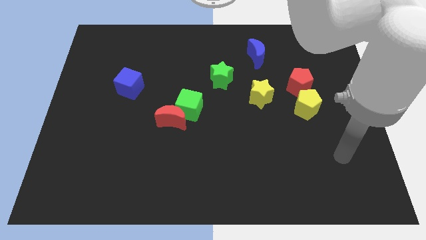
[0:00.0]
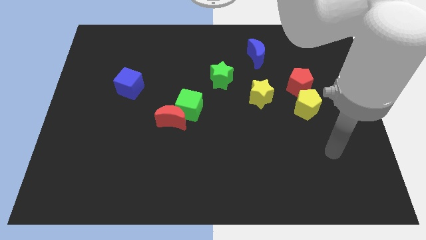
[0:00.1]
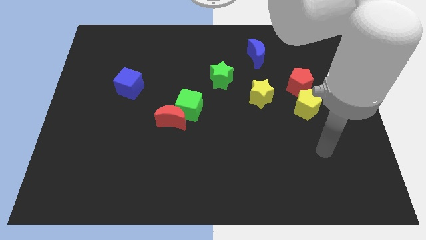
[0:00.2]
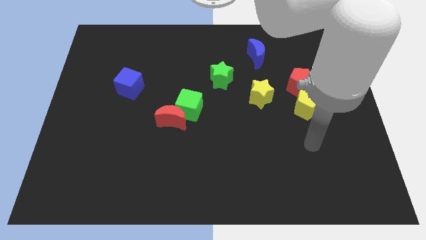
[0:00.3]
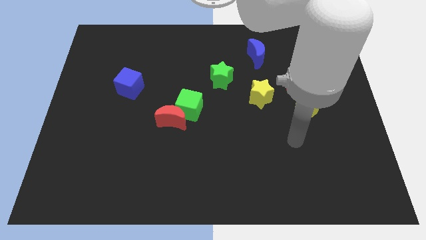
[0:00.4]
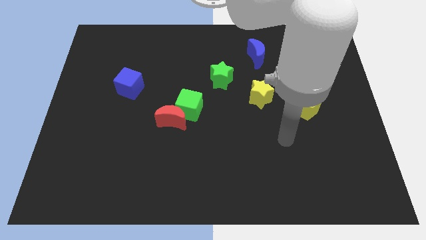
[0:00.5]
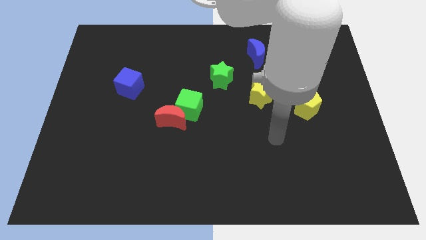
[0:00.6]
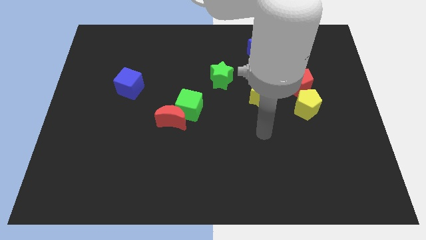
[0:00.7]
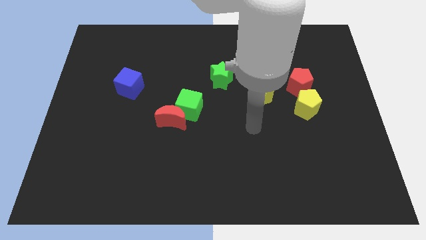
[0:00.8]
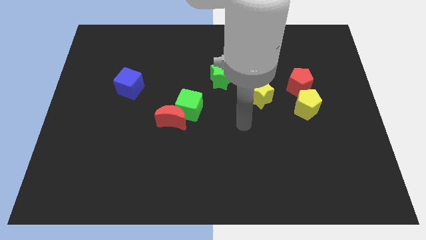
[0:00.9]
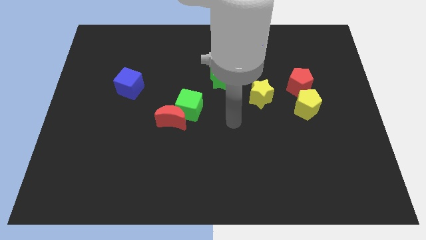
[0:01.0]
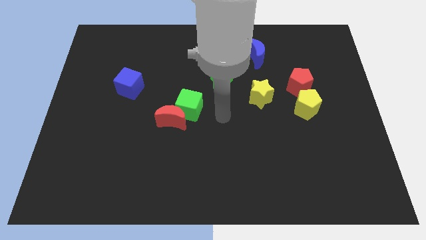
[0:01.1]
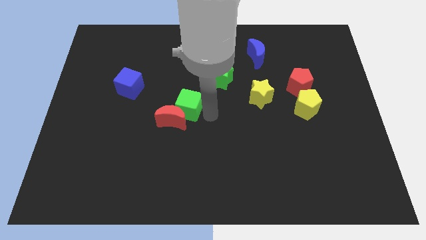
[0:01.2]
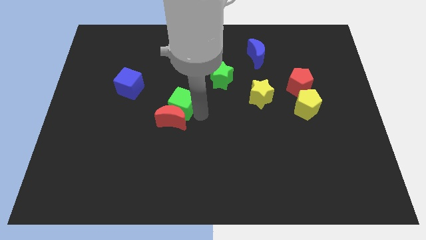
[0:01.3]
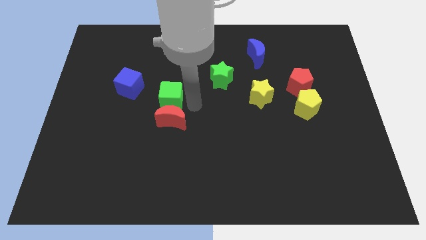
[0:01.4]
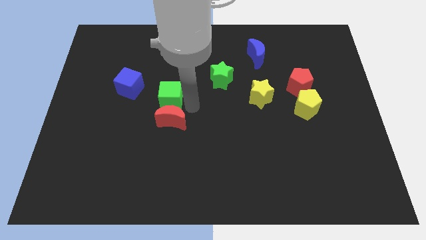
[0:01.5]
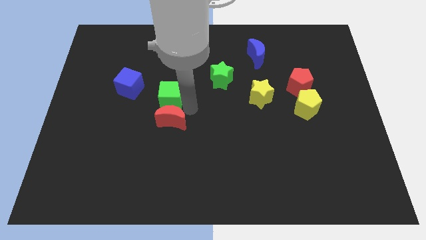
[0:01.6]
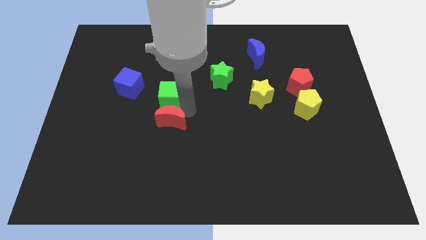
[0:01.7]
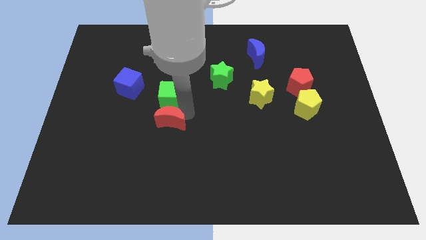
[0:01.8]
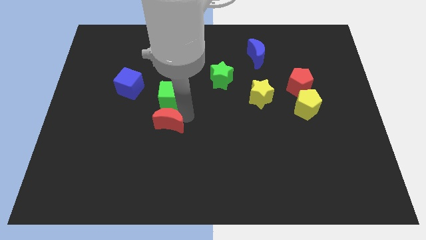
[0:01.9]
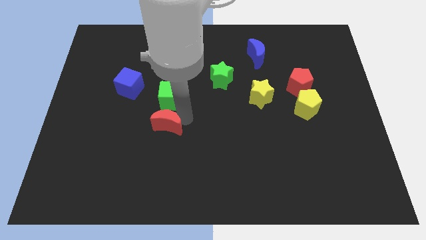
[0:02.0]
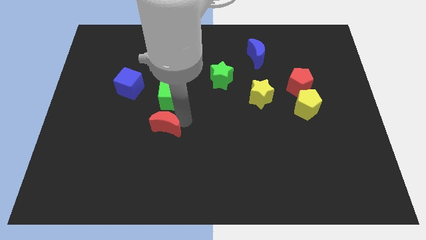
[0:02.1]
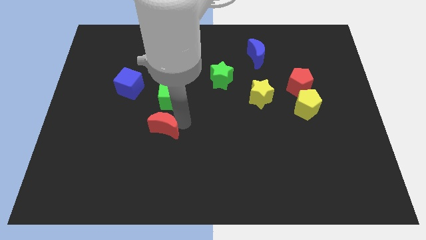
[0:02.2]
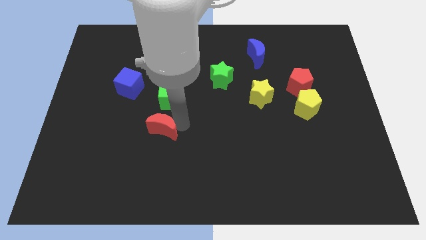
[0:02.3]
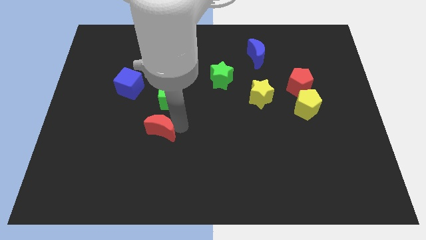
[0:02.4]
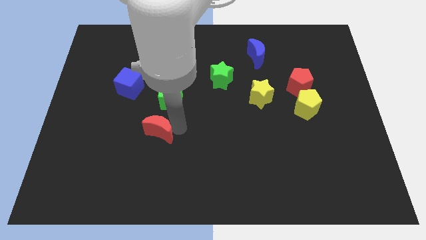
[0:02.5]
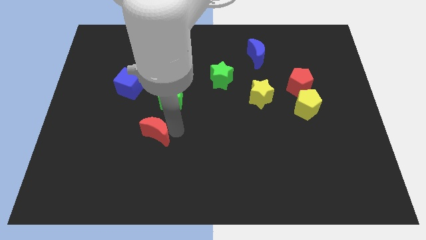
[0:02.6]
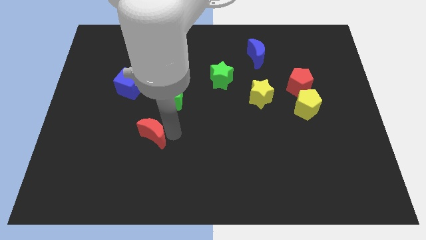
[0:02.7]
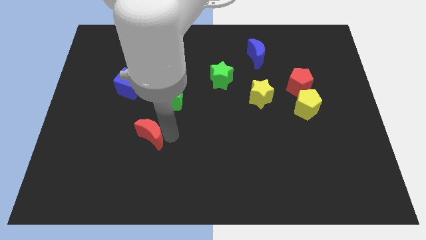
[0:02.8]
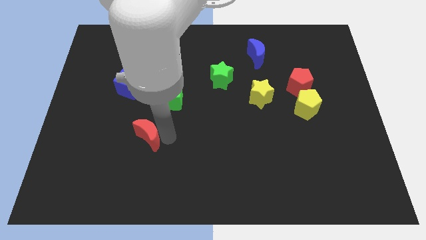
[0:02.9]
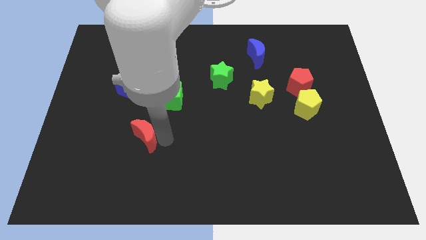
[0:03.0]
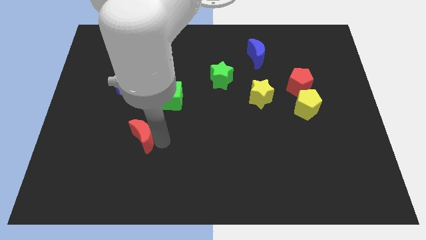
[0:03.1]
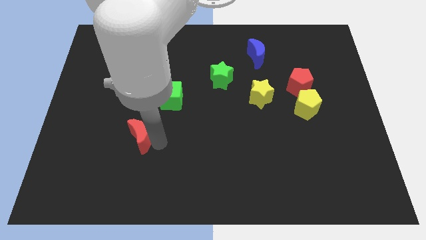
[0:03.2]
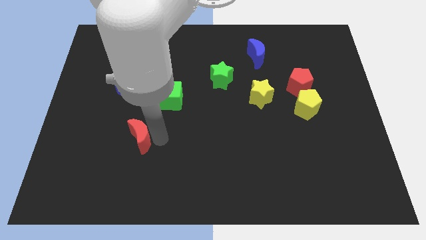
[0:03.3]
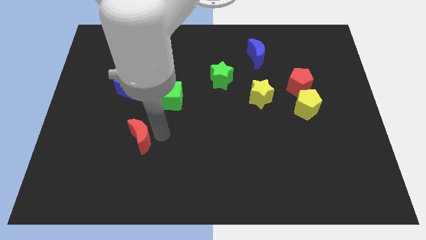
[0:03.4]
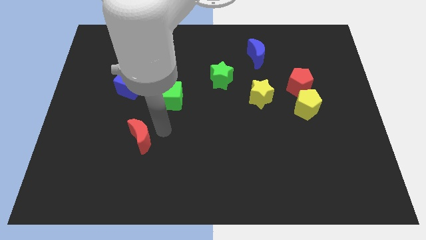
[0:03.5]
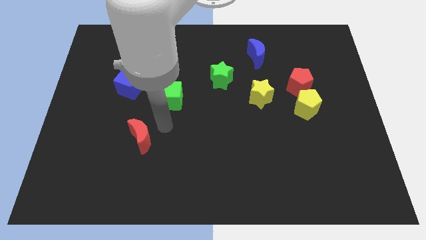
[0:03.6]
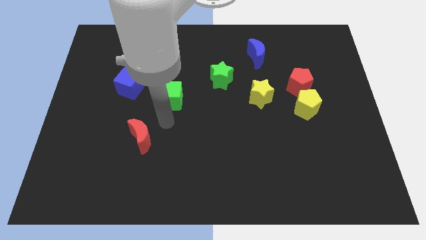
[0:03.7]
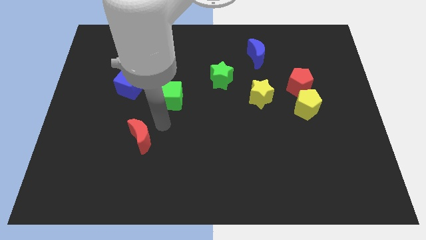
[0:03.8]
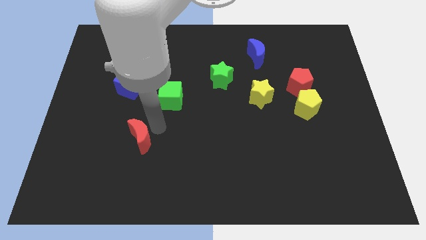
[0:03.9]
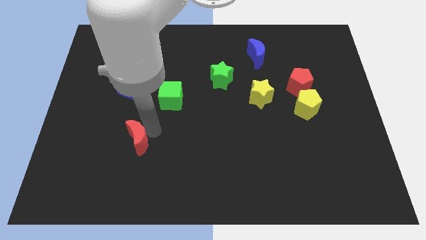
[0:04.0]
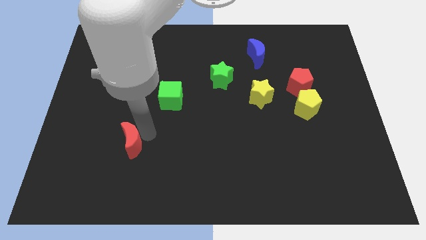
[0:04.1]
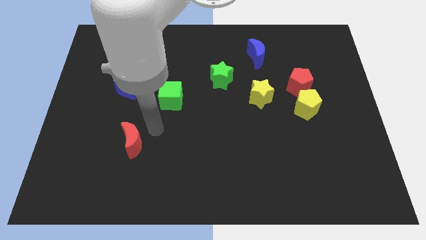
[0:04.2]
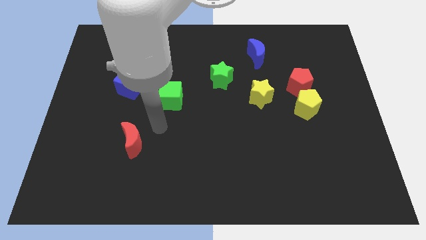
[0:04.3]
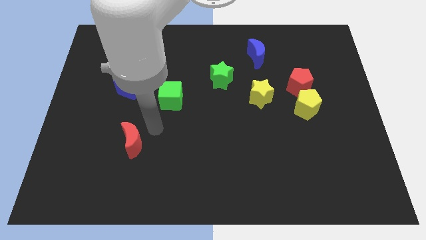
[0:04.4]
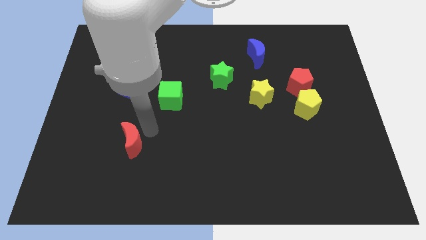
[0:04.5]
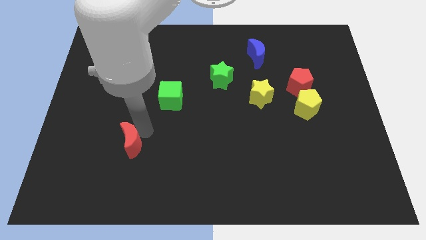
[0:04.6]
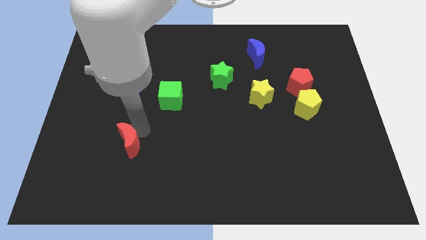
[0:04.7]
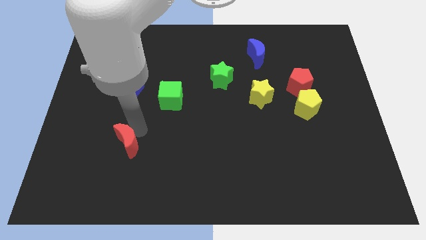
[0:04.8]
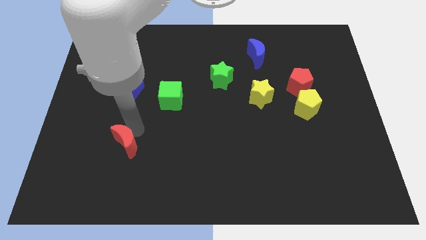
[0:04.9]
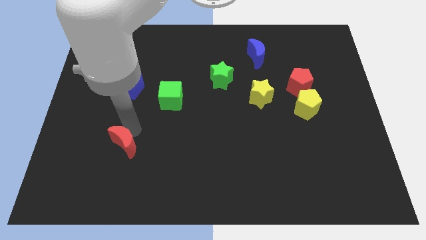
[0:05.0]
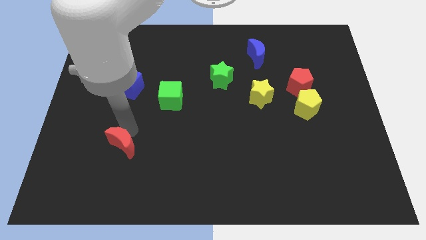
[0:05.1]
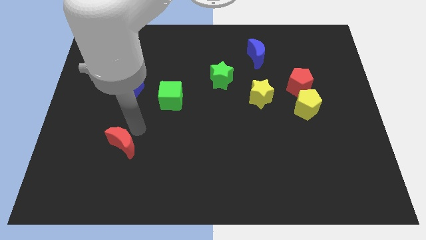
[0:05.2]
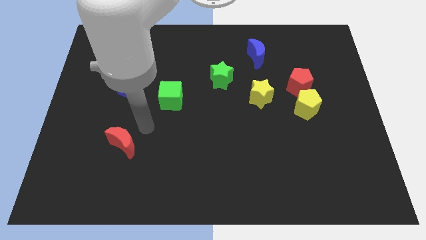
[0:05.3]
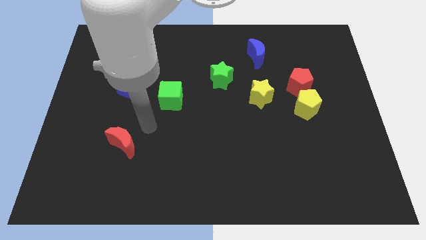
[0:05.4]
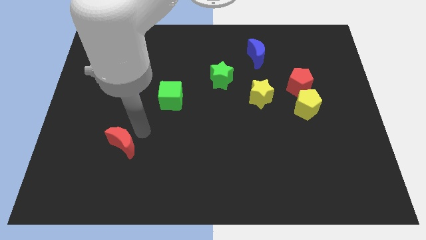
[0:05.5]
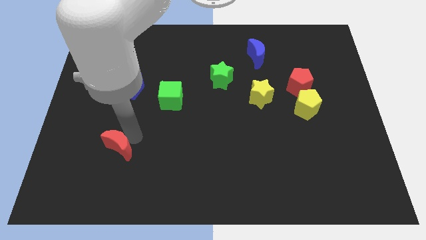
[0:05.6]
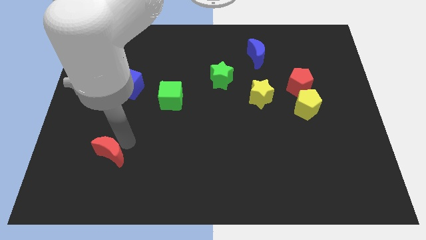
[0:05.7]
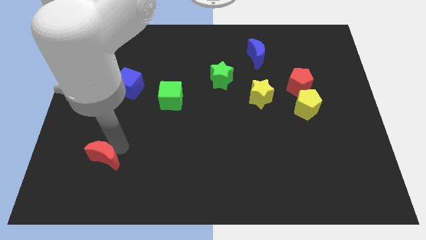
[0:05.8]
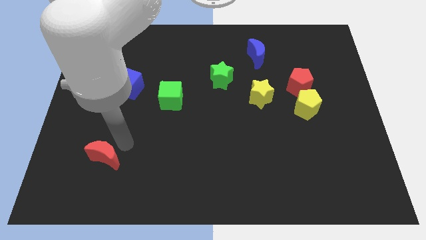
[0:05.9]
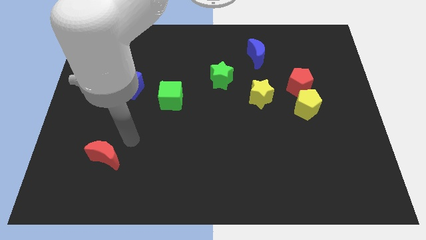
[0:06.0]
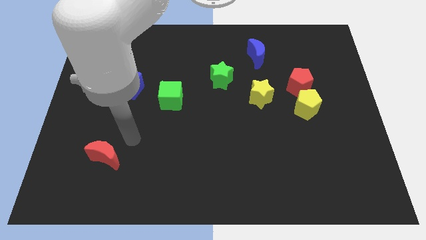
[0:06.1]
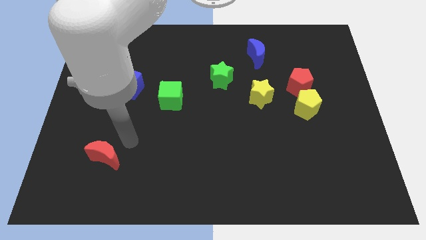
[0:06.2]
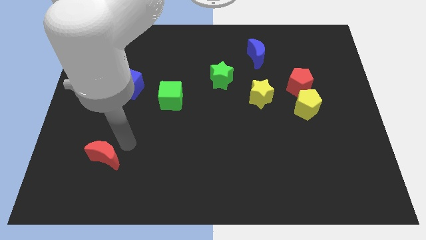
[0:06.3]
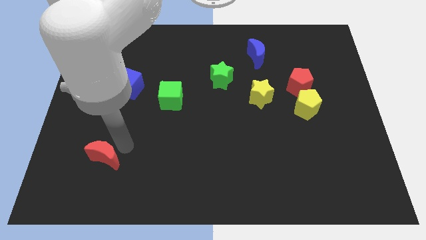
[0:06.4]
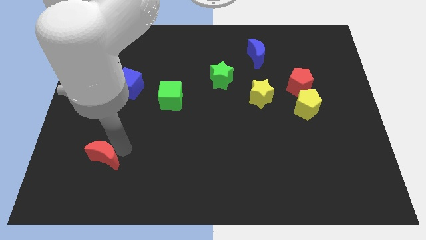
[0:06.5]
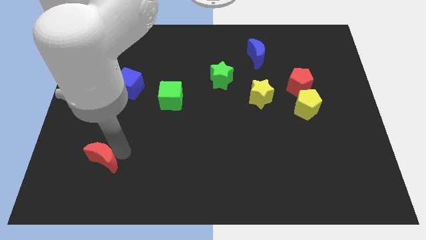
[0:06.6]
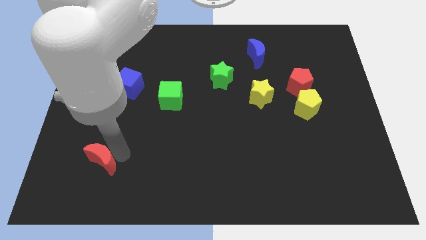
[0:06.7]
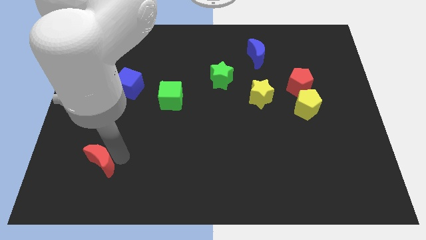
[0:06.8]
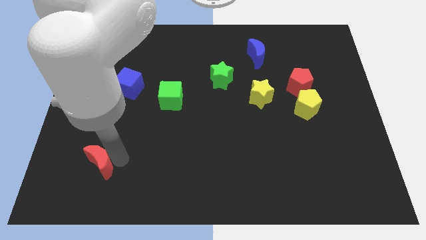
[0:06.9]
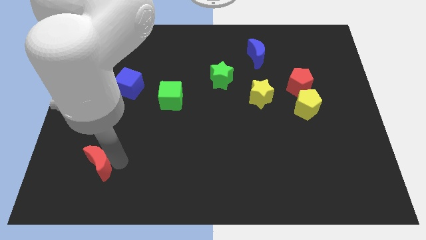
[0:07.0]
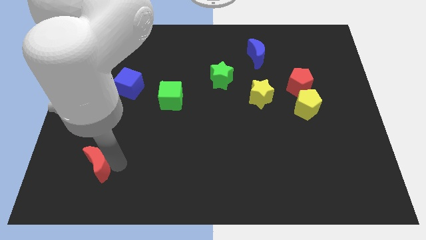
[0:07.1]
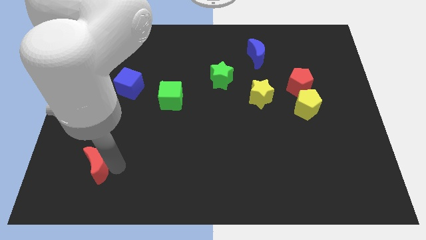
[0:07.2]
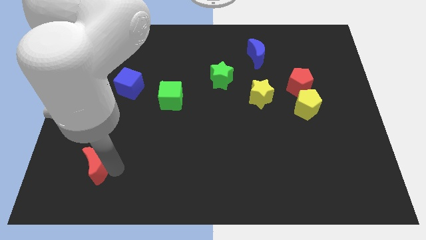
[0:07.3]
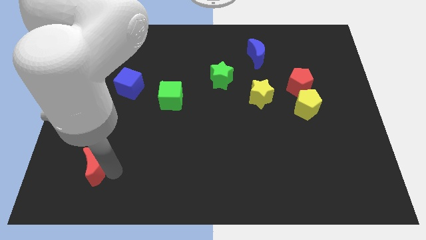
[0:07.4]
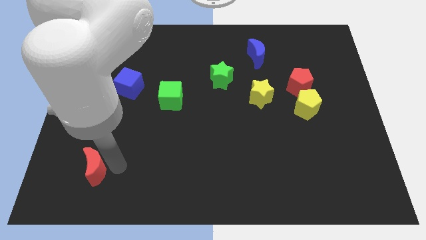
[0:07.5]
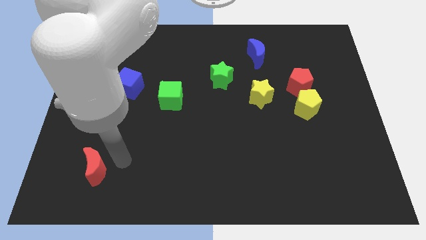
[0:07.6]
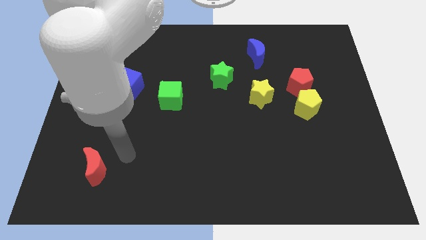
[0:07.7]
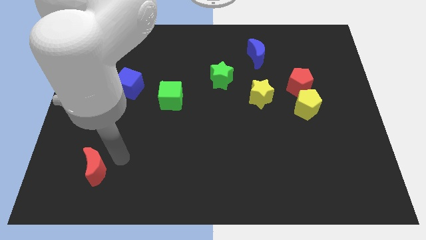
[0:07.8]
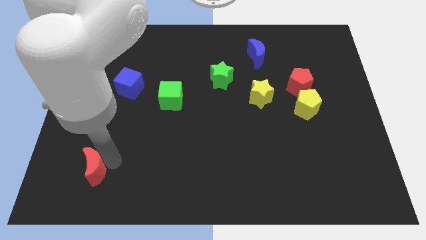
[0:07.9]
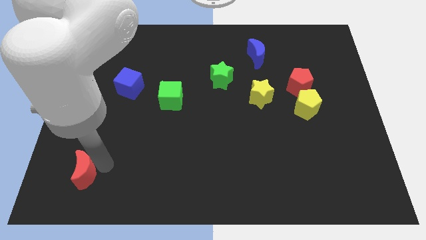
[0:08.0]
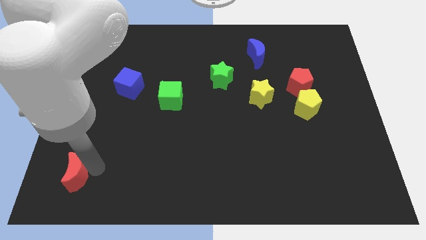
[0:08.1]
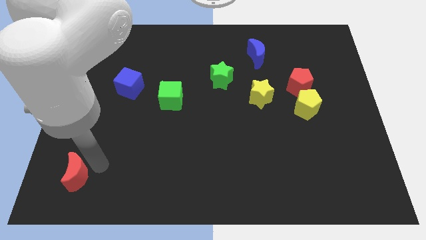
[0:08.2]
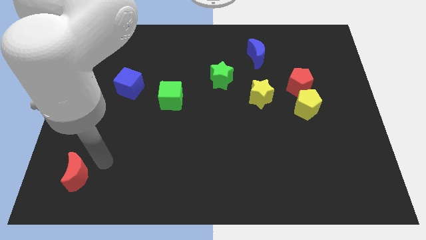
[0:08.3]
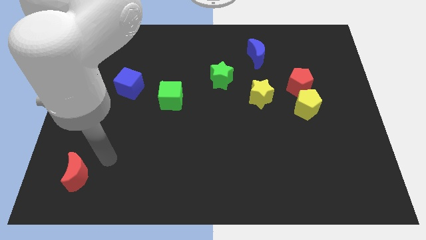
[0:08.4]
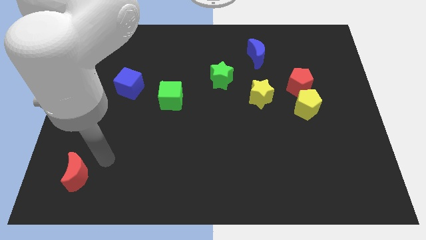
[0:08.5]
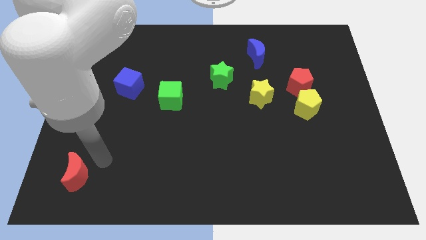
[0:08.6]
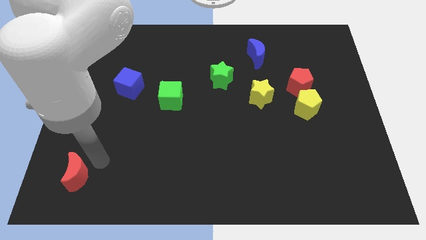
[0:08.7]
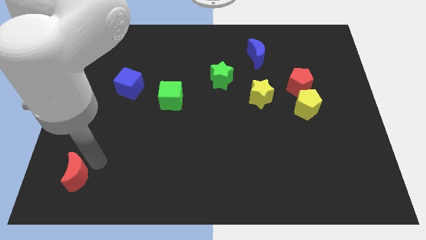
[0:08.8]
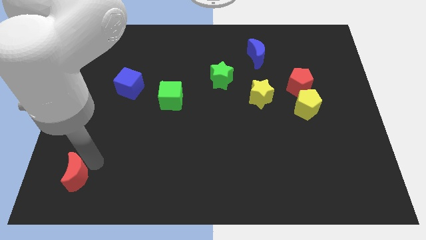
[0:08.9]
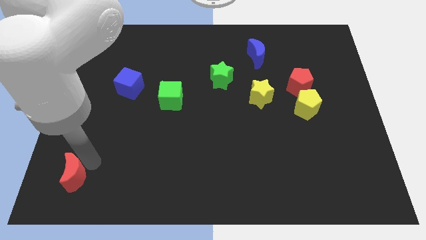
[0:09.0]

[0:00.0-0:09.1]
put the red moon to the bottom left corner
